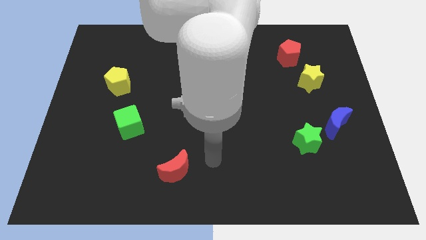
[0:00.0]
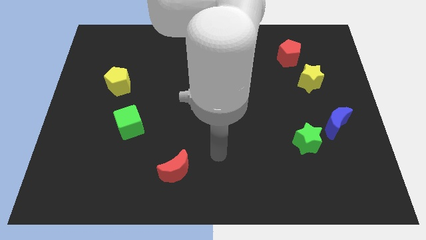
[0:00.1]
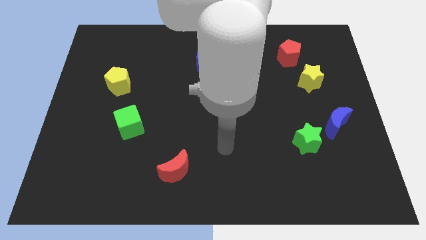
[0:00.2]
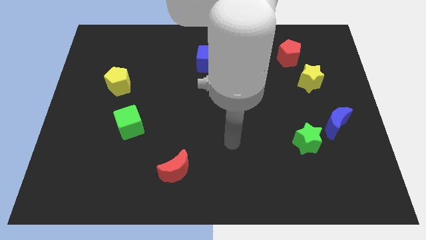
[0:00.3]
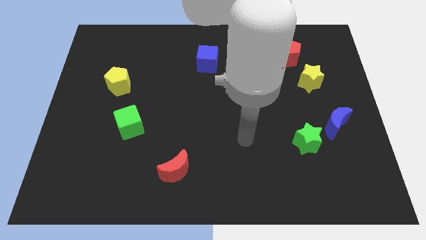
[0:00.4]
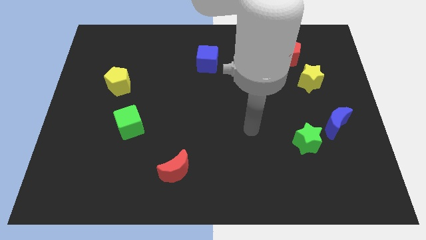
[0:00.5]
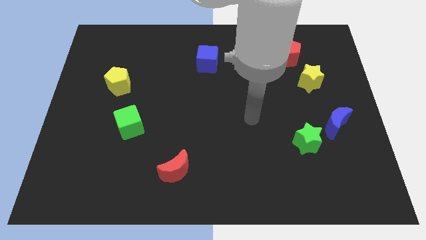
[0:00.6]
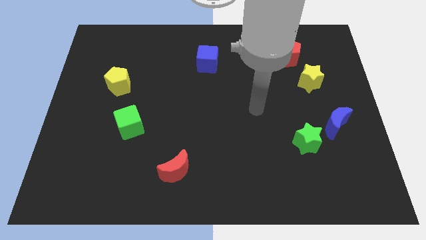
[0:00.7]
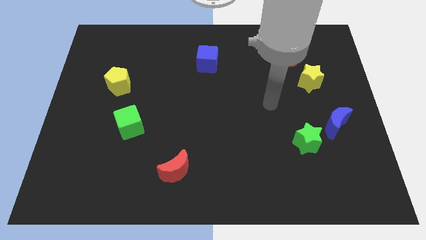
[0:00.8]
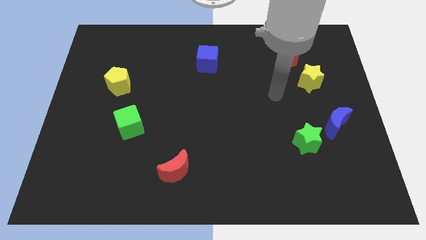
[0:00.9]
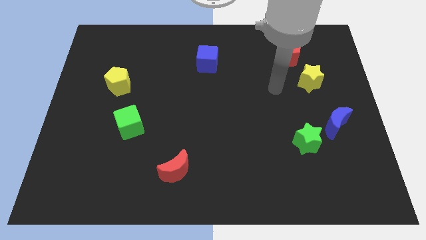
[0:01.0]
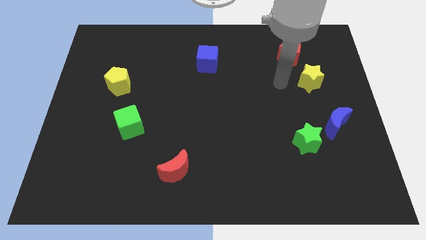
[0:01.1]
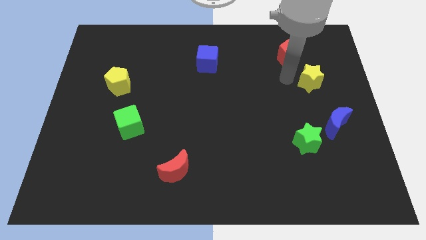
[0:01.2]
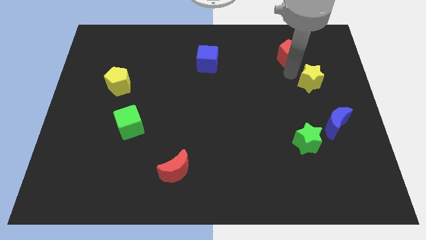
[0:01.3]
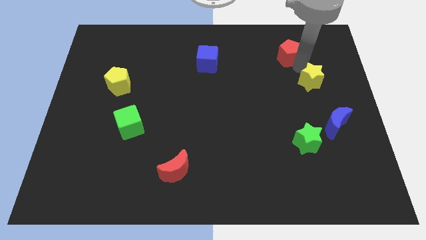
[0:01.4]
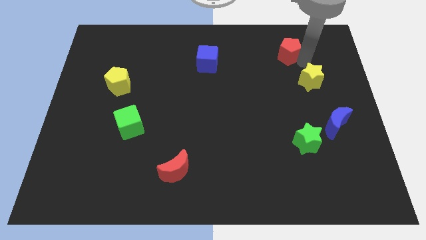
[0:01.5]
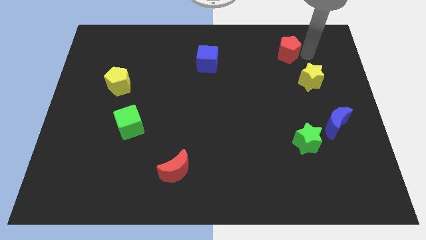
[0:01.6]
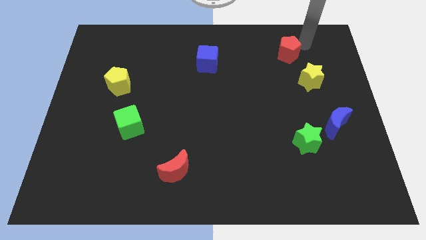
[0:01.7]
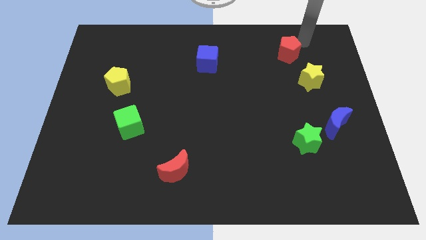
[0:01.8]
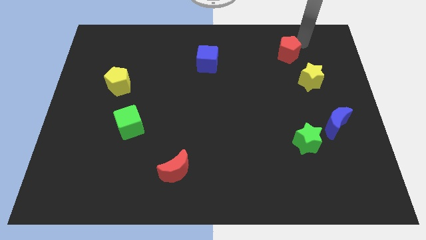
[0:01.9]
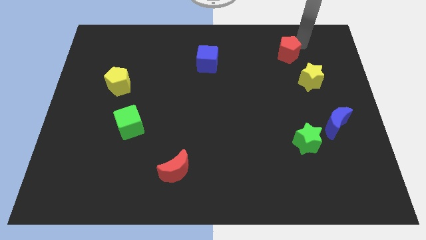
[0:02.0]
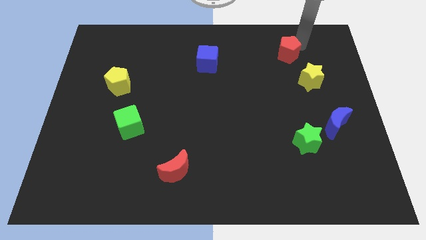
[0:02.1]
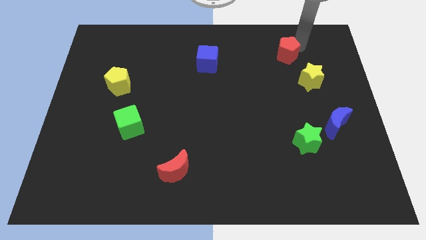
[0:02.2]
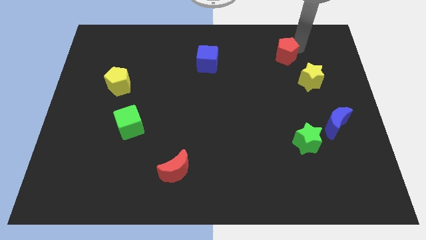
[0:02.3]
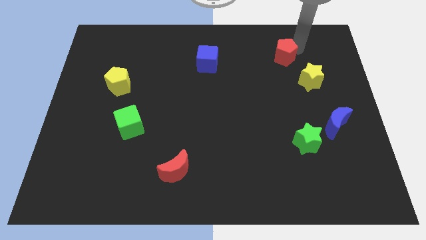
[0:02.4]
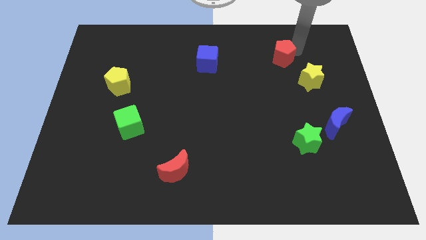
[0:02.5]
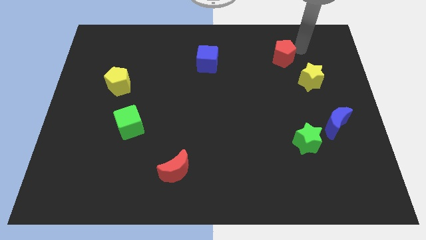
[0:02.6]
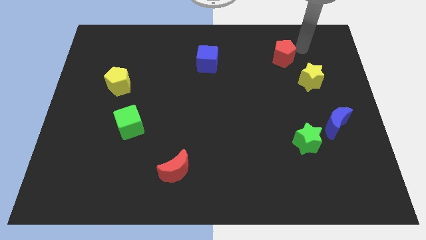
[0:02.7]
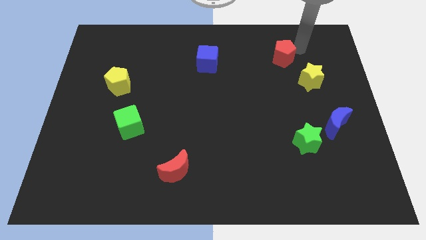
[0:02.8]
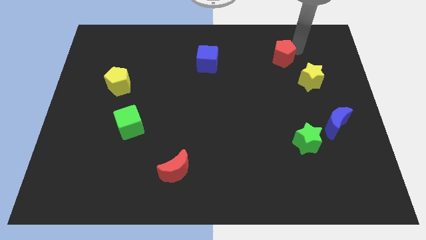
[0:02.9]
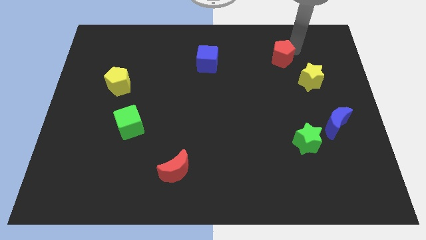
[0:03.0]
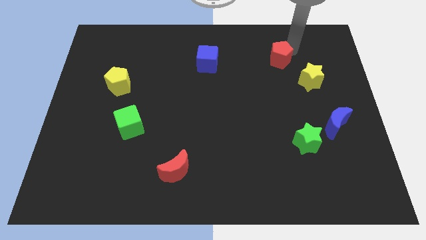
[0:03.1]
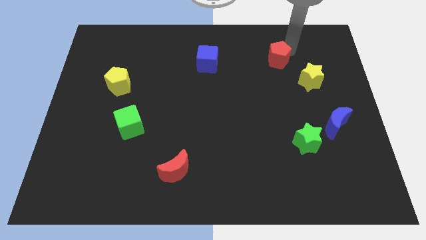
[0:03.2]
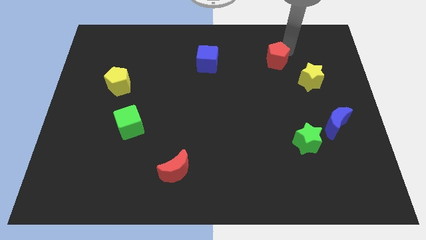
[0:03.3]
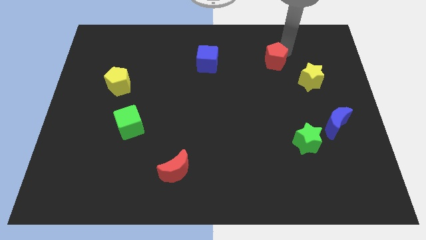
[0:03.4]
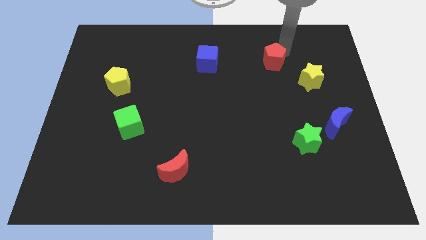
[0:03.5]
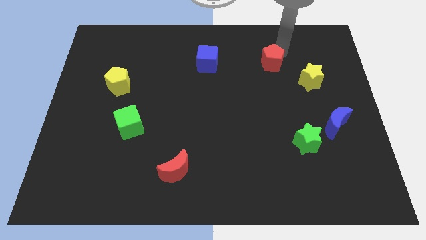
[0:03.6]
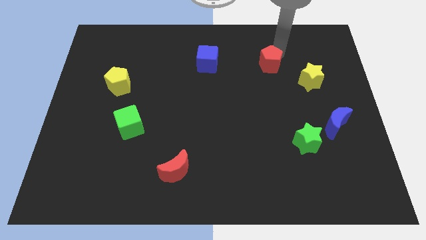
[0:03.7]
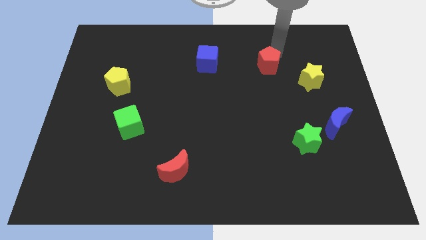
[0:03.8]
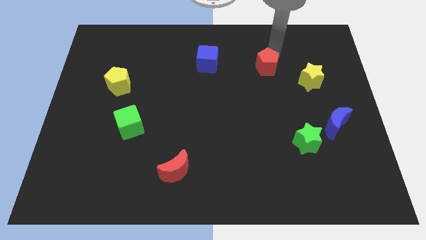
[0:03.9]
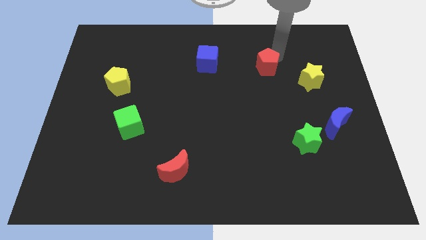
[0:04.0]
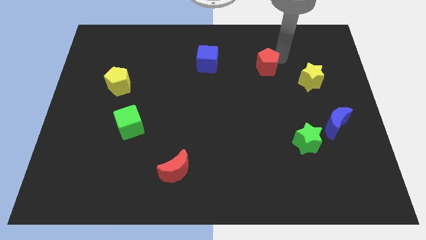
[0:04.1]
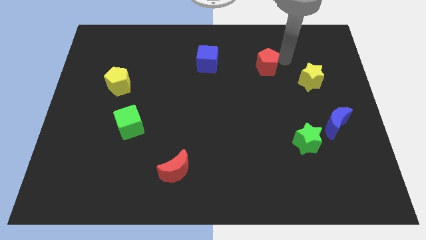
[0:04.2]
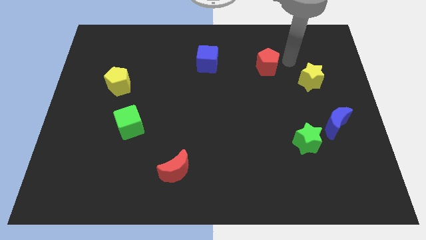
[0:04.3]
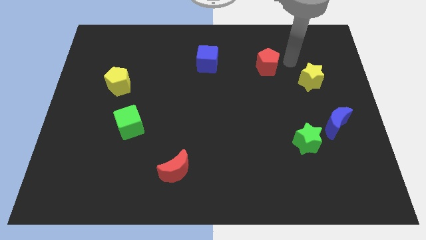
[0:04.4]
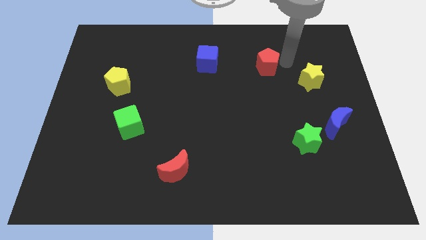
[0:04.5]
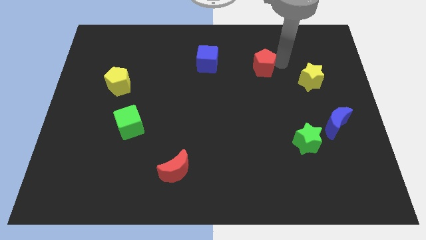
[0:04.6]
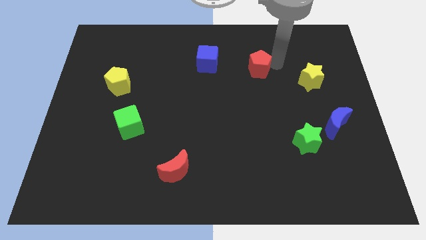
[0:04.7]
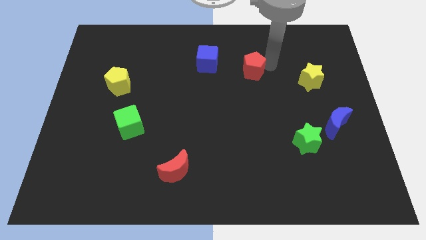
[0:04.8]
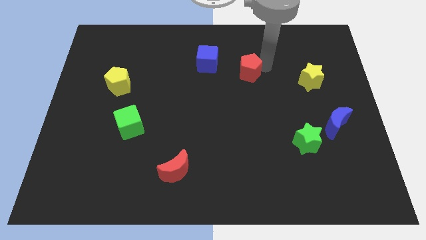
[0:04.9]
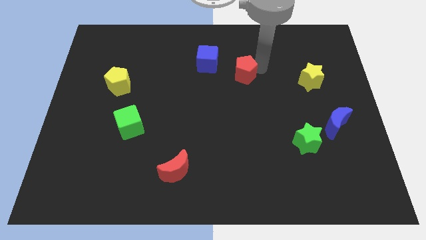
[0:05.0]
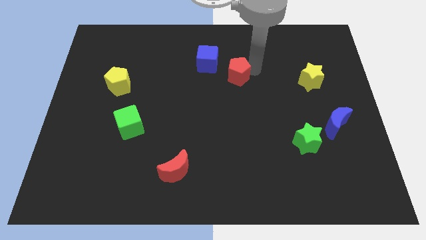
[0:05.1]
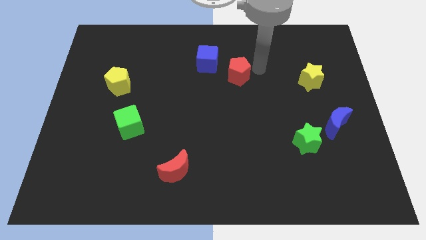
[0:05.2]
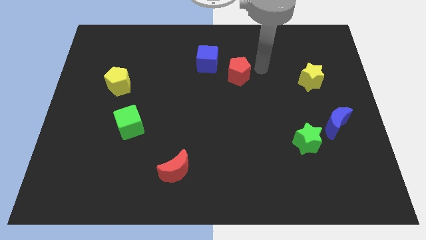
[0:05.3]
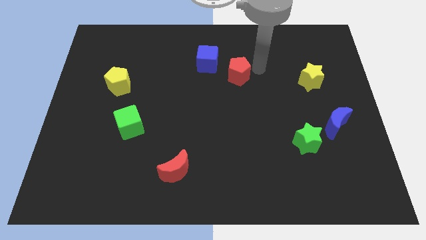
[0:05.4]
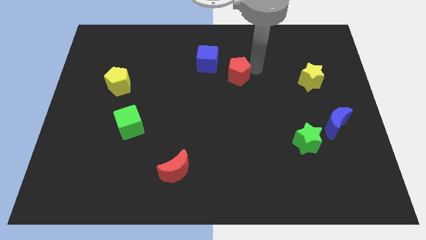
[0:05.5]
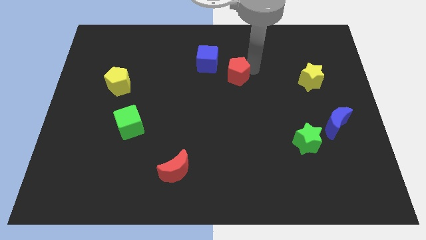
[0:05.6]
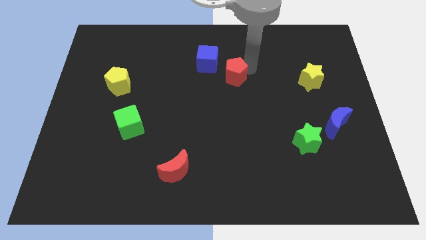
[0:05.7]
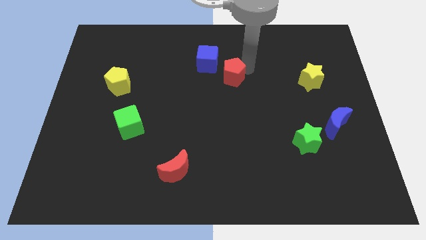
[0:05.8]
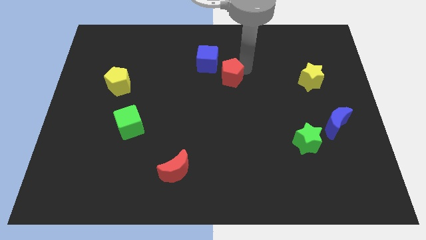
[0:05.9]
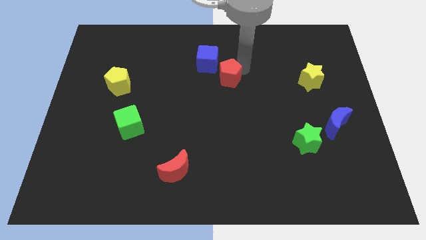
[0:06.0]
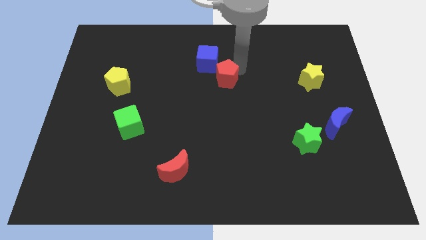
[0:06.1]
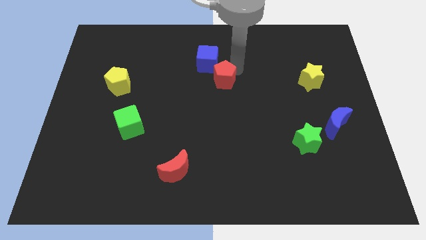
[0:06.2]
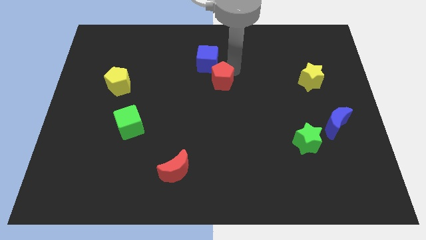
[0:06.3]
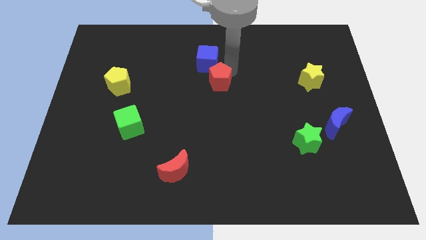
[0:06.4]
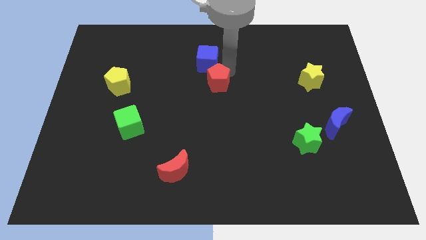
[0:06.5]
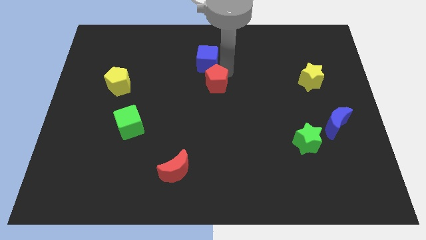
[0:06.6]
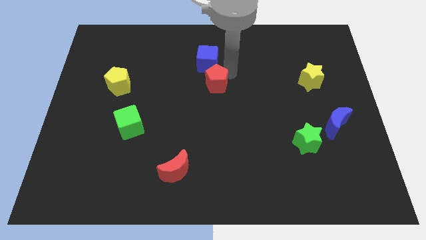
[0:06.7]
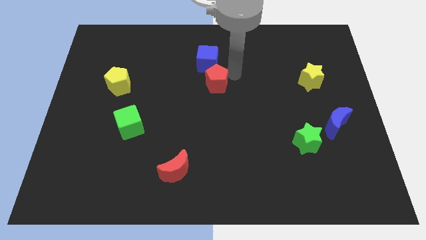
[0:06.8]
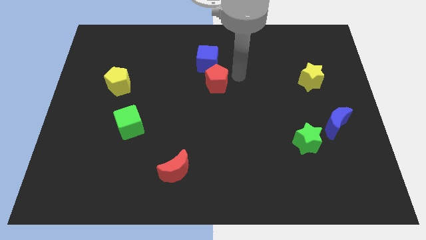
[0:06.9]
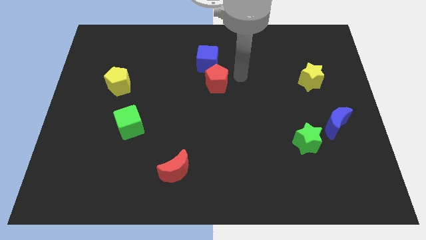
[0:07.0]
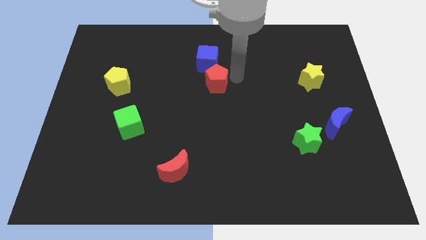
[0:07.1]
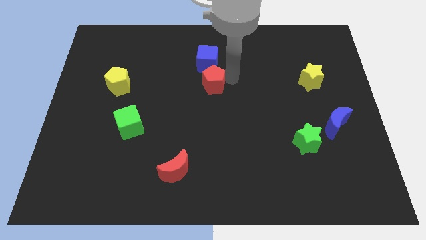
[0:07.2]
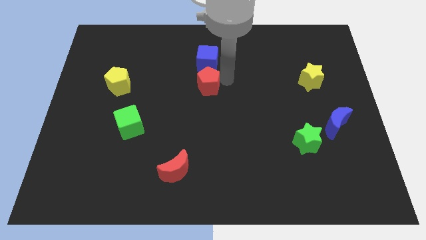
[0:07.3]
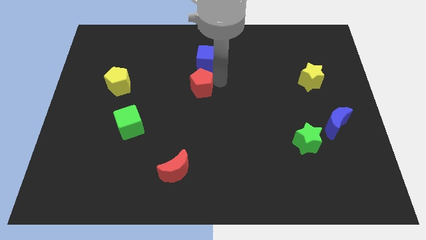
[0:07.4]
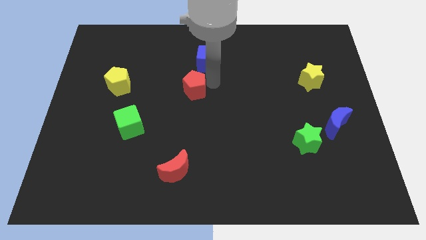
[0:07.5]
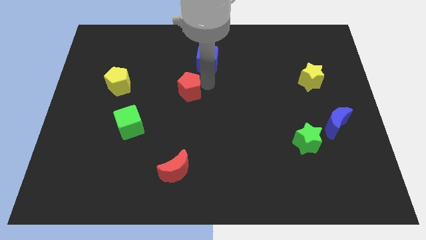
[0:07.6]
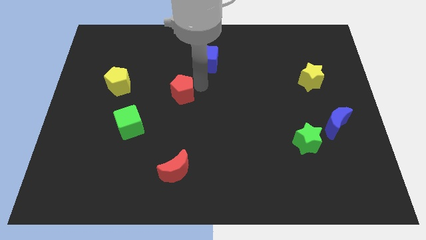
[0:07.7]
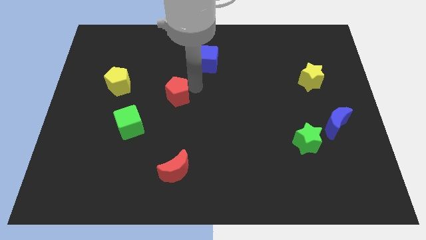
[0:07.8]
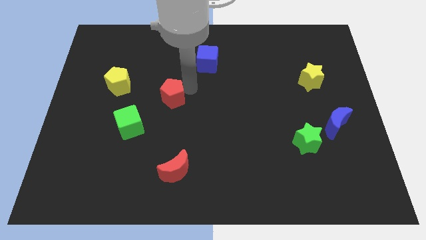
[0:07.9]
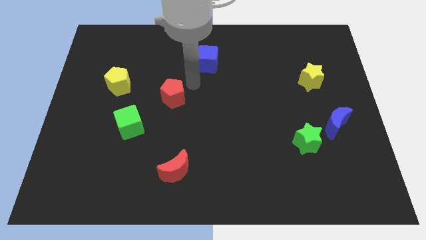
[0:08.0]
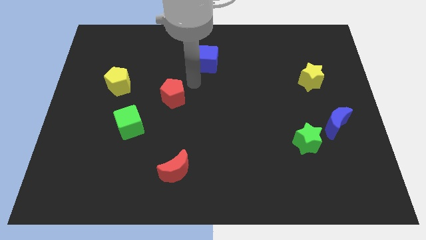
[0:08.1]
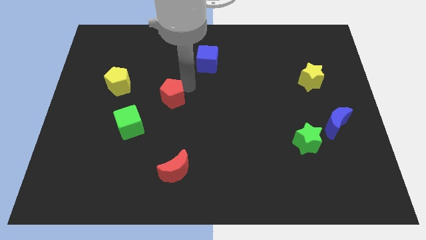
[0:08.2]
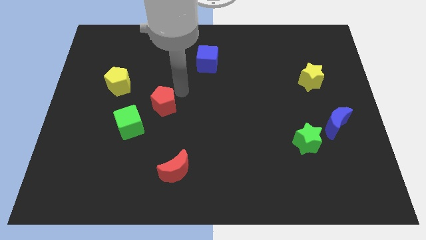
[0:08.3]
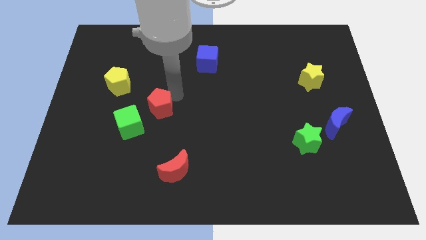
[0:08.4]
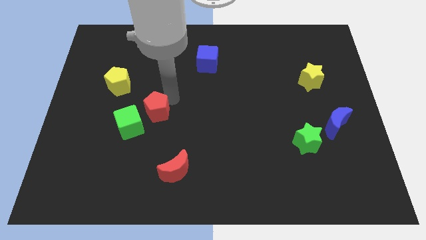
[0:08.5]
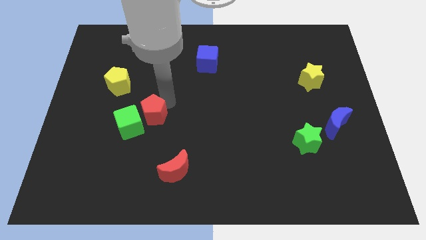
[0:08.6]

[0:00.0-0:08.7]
move the red pentagon to the green cube
